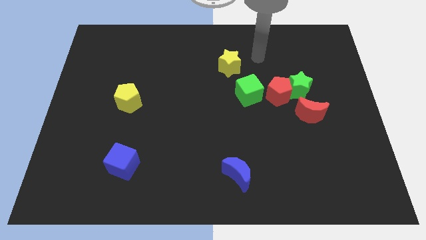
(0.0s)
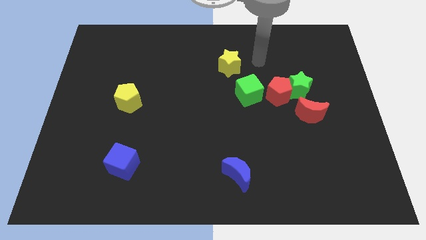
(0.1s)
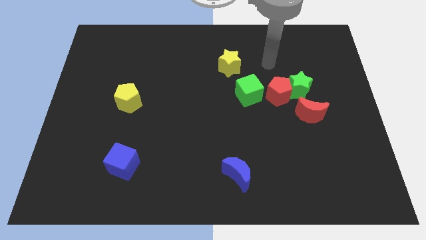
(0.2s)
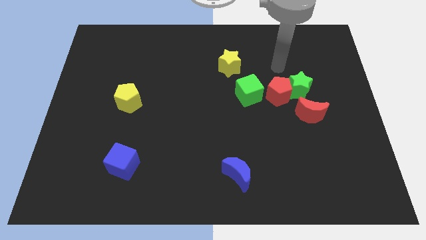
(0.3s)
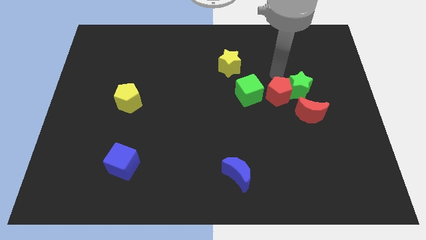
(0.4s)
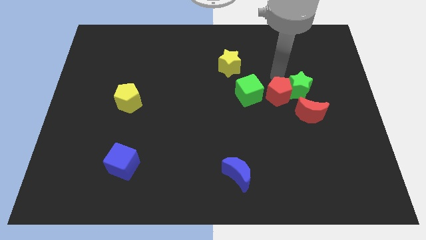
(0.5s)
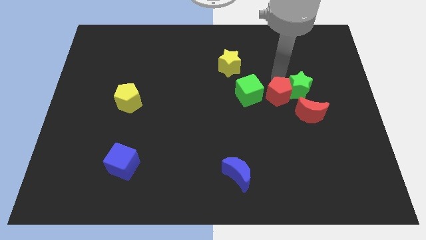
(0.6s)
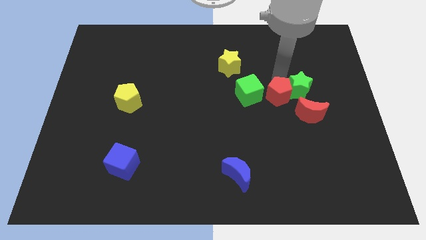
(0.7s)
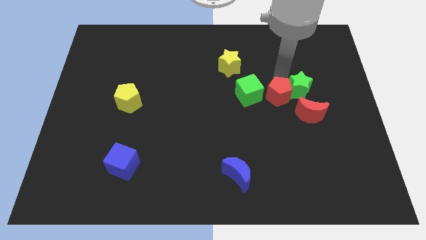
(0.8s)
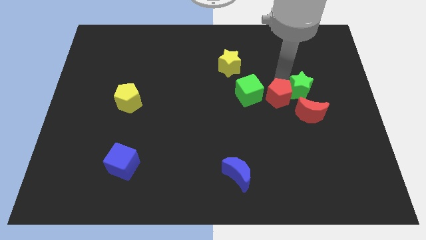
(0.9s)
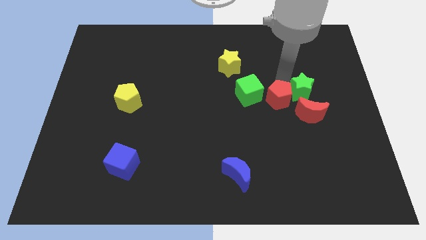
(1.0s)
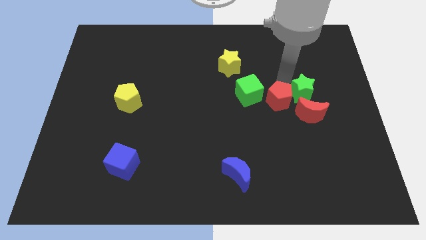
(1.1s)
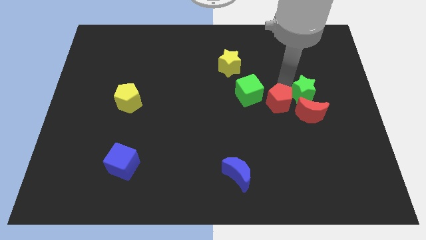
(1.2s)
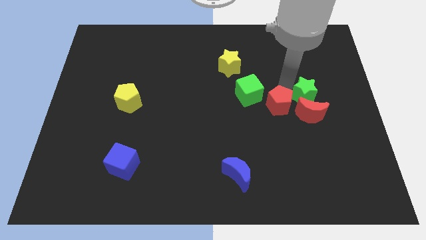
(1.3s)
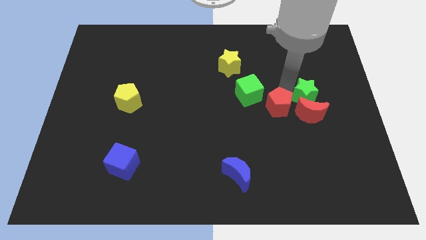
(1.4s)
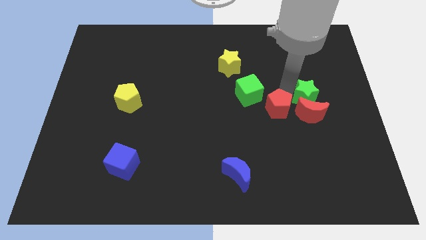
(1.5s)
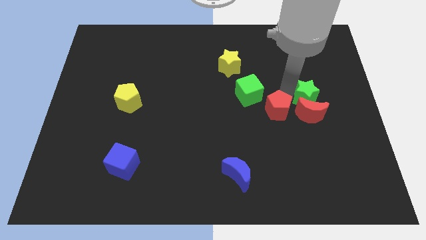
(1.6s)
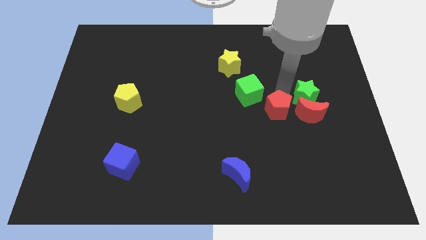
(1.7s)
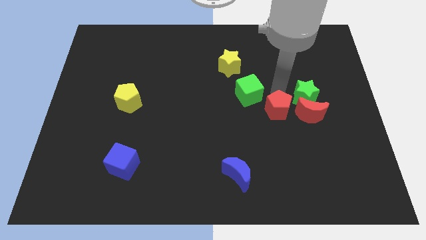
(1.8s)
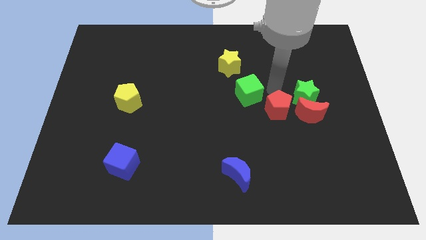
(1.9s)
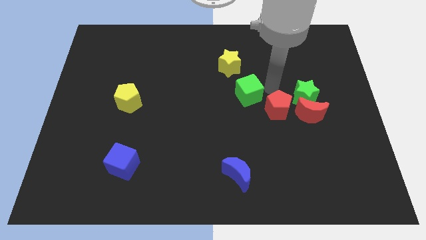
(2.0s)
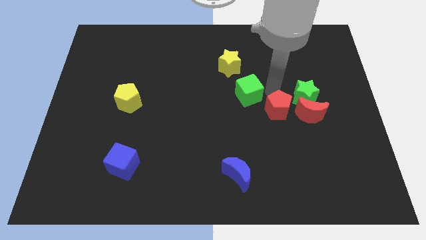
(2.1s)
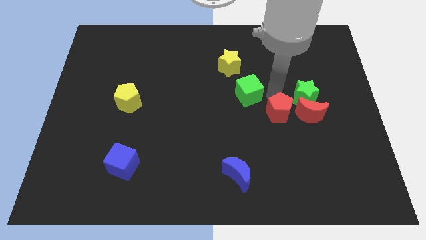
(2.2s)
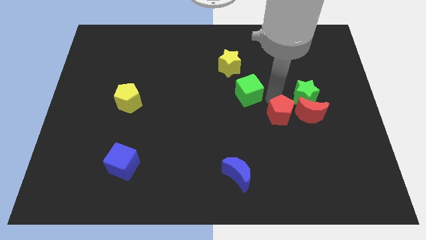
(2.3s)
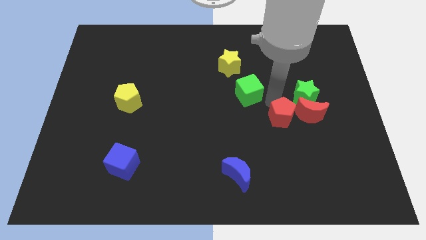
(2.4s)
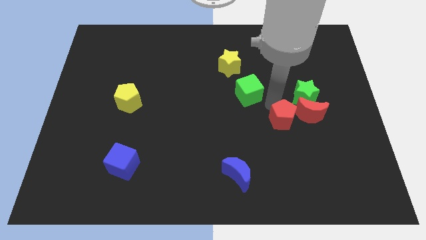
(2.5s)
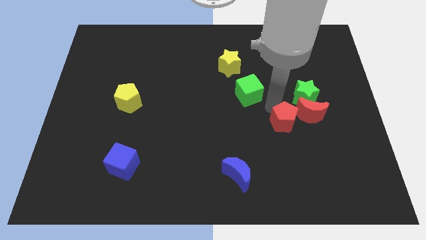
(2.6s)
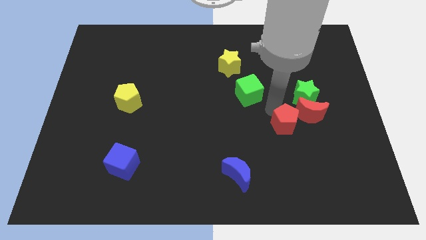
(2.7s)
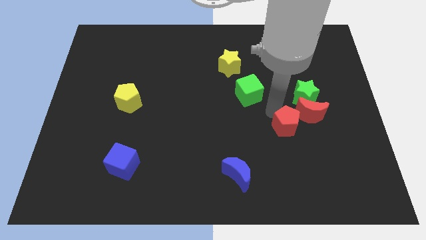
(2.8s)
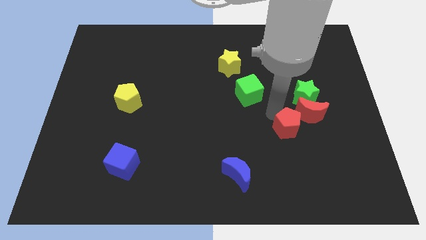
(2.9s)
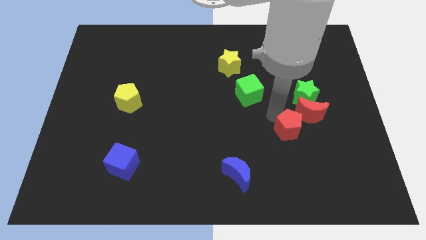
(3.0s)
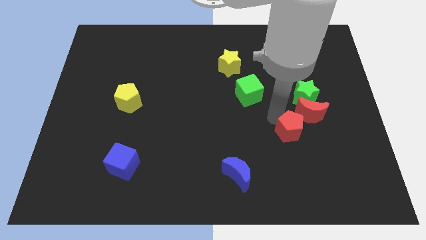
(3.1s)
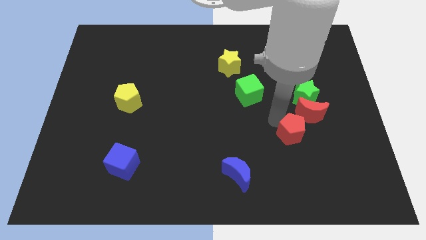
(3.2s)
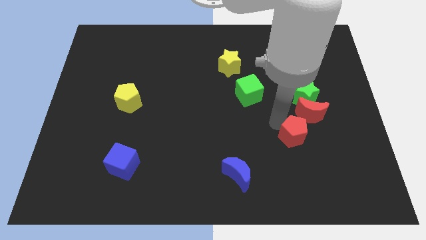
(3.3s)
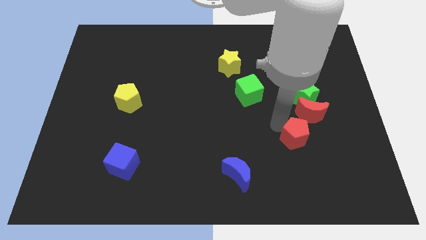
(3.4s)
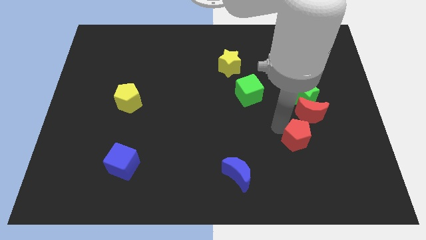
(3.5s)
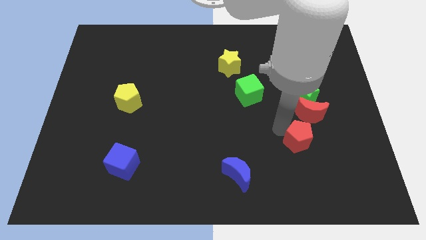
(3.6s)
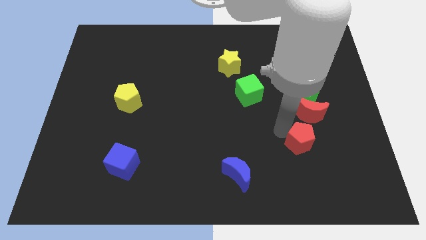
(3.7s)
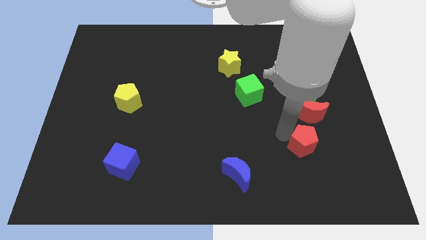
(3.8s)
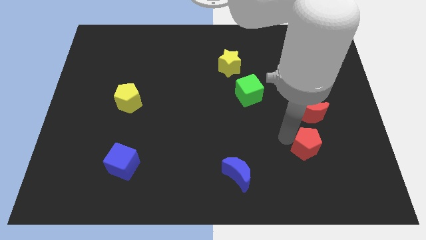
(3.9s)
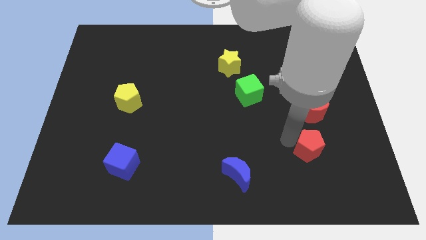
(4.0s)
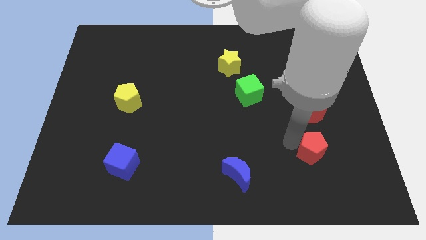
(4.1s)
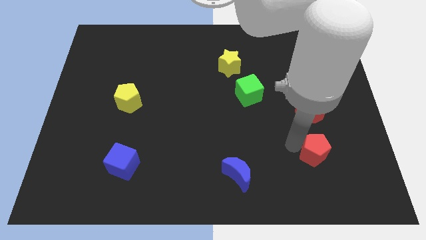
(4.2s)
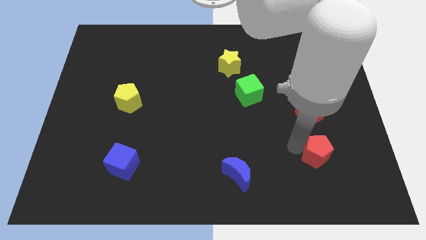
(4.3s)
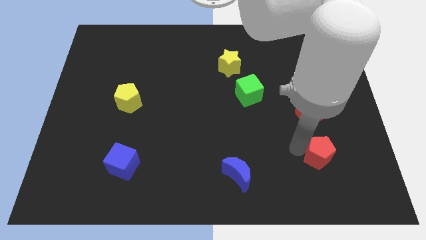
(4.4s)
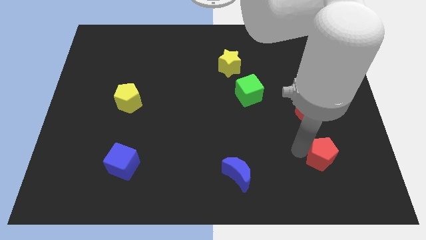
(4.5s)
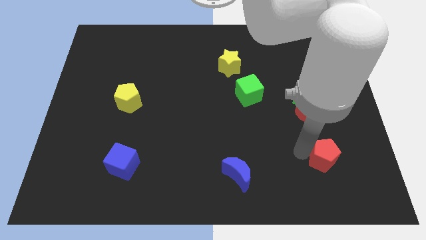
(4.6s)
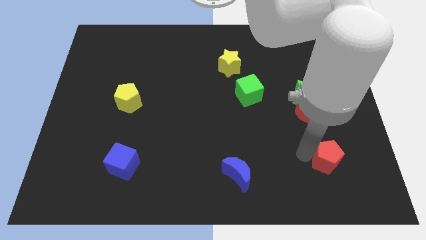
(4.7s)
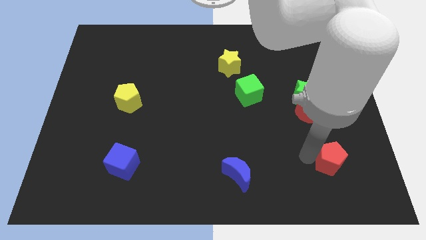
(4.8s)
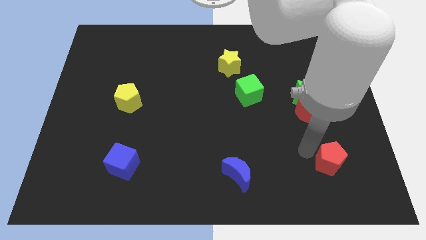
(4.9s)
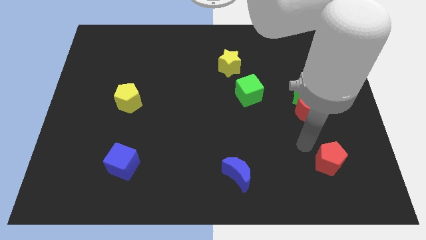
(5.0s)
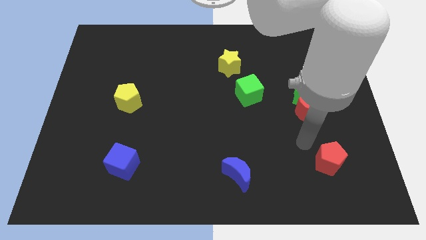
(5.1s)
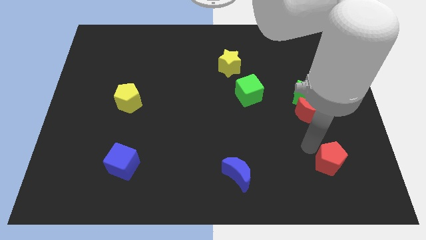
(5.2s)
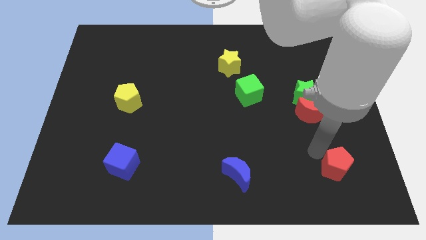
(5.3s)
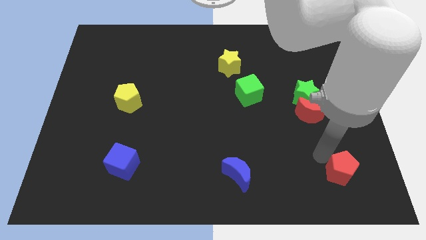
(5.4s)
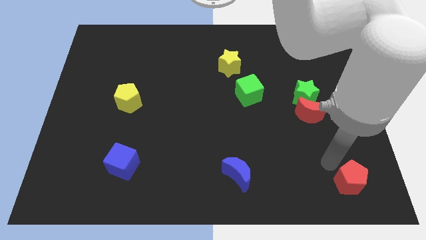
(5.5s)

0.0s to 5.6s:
push the red pentagon to the bottom right of the board
